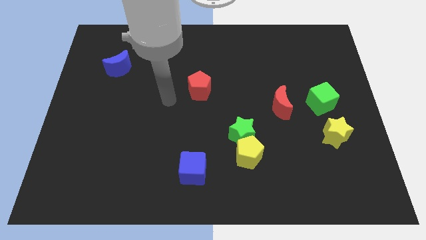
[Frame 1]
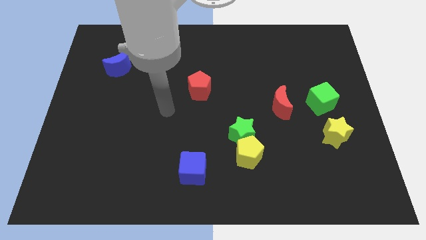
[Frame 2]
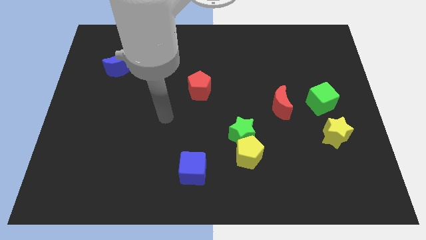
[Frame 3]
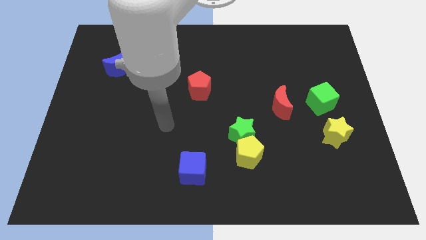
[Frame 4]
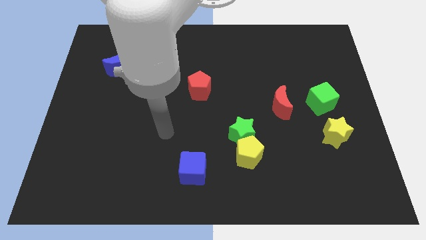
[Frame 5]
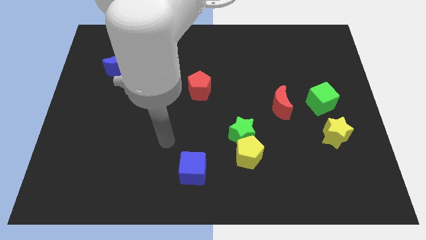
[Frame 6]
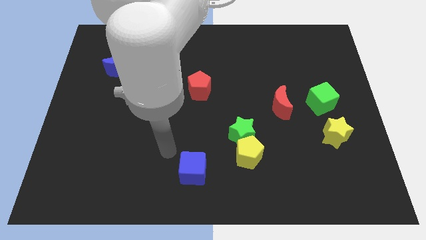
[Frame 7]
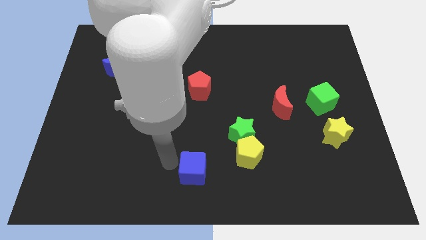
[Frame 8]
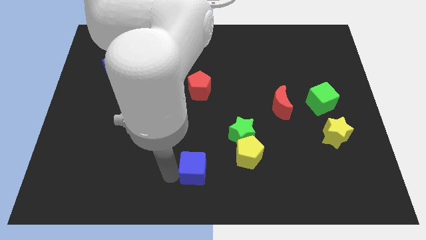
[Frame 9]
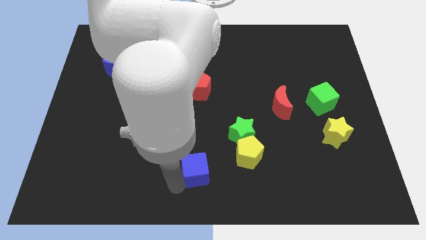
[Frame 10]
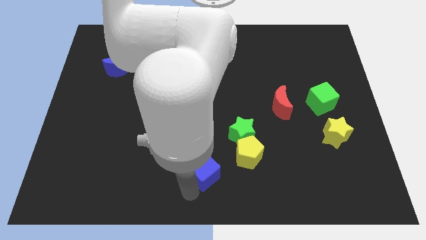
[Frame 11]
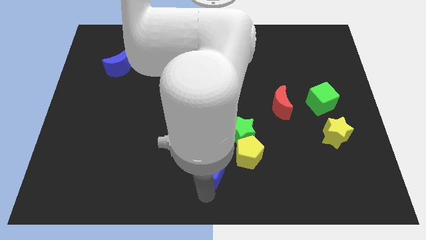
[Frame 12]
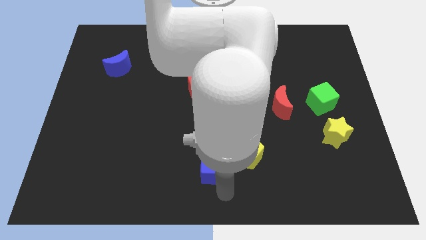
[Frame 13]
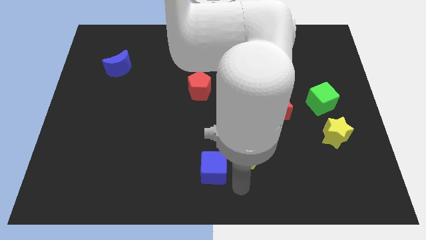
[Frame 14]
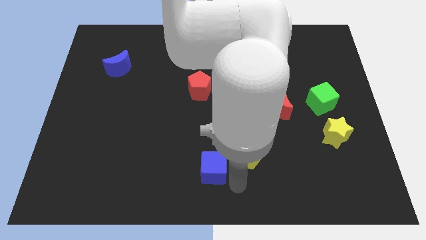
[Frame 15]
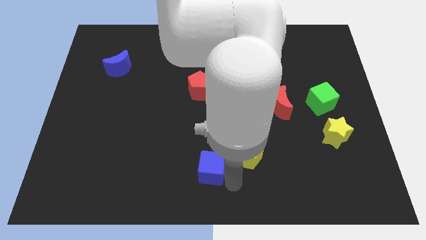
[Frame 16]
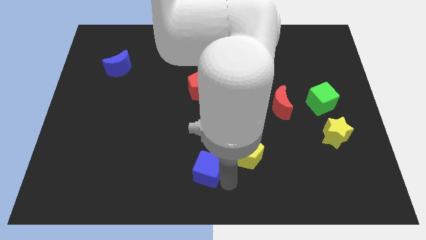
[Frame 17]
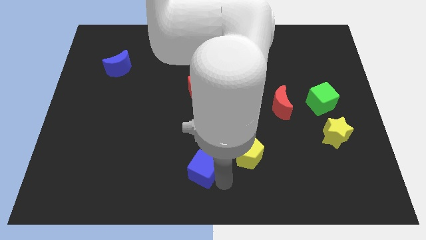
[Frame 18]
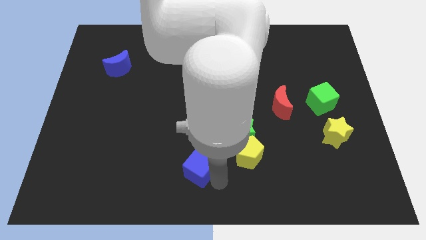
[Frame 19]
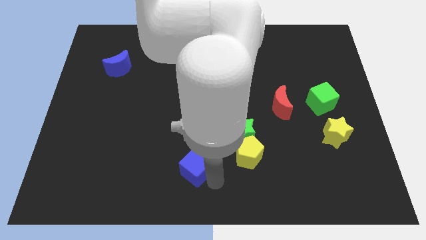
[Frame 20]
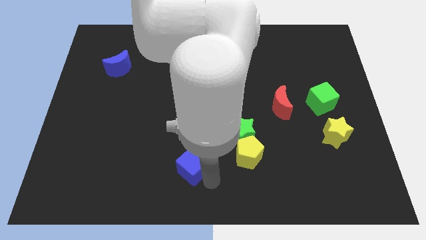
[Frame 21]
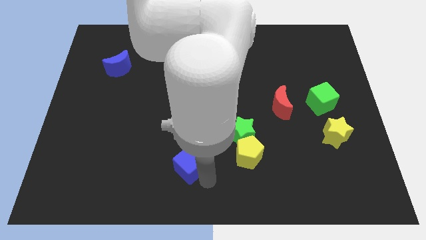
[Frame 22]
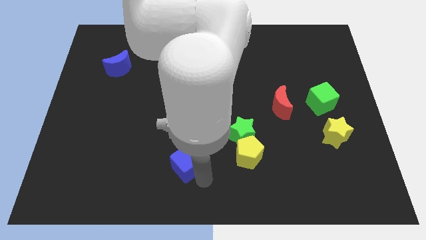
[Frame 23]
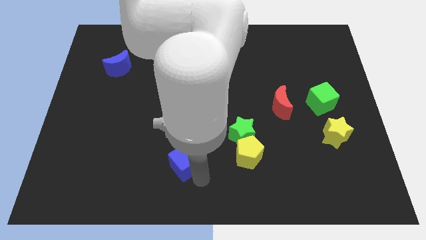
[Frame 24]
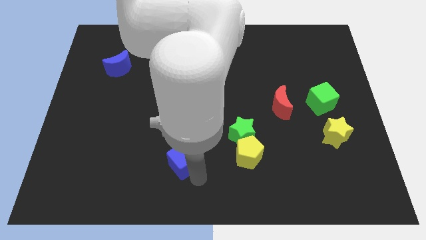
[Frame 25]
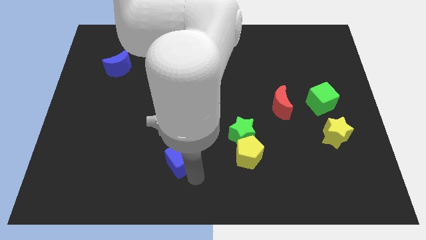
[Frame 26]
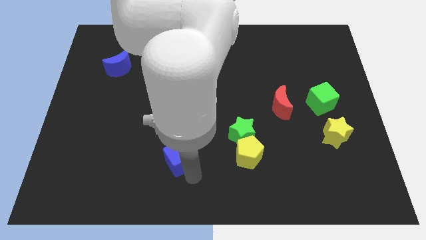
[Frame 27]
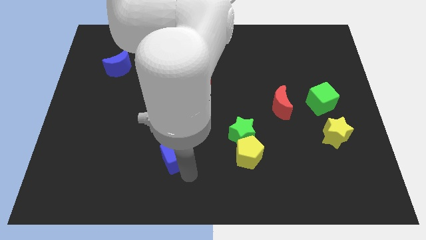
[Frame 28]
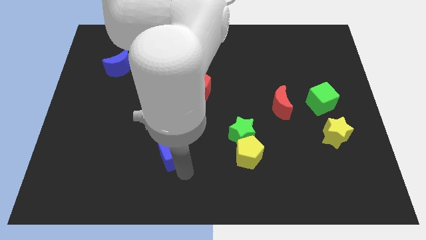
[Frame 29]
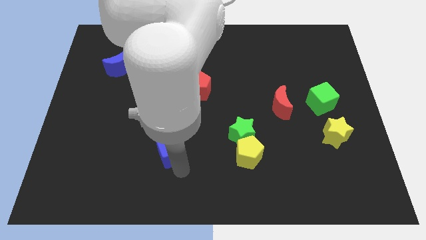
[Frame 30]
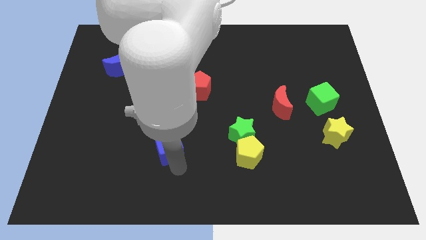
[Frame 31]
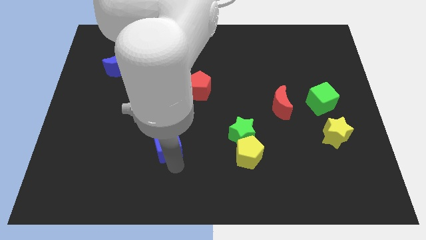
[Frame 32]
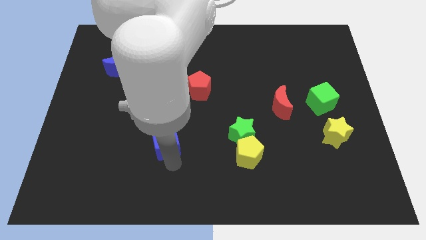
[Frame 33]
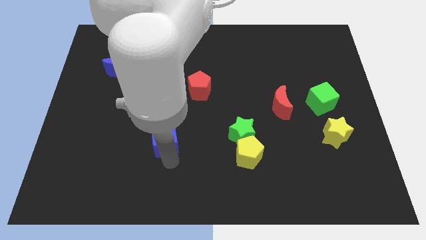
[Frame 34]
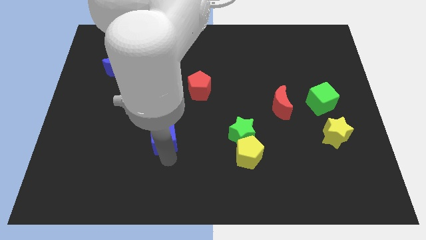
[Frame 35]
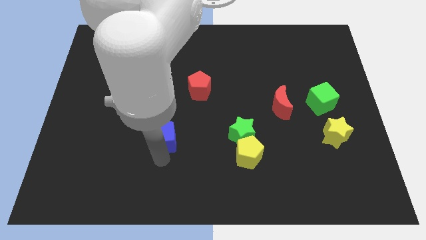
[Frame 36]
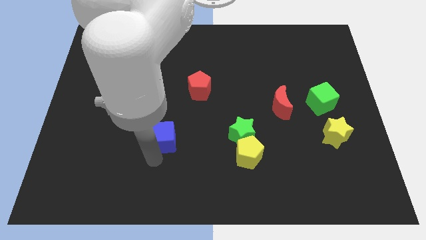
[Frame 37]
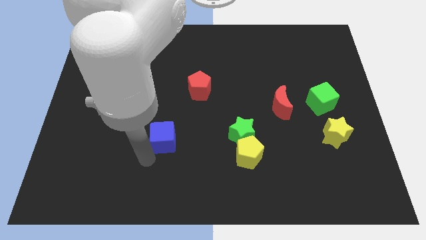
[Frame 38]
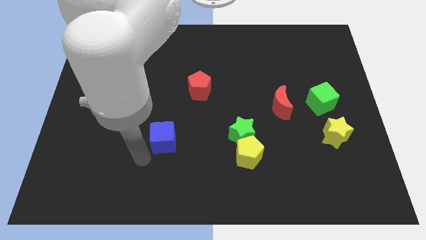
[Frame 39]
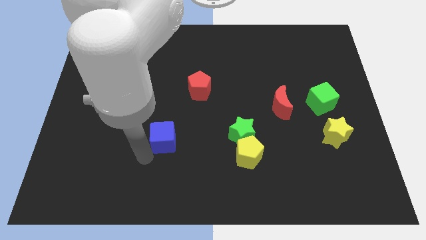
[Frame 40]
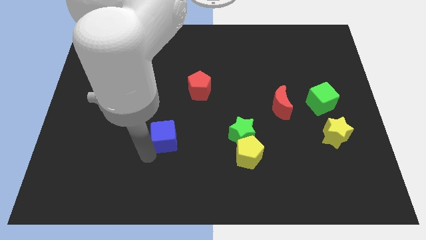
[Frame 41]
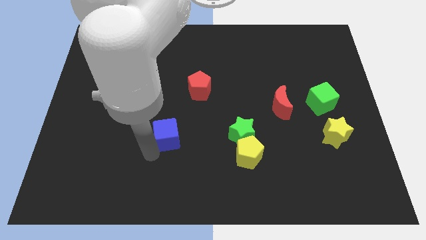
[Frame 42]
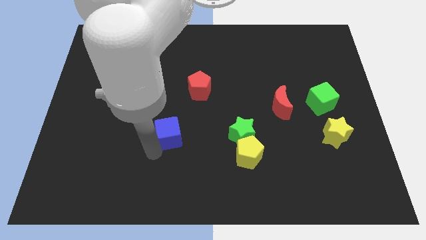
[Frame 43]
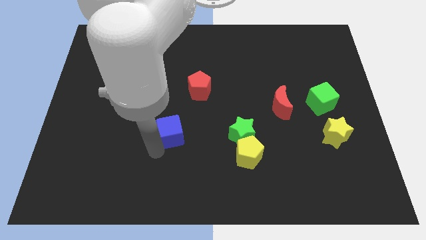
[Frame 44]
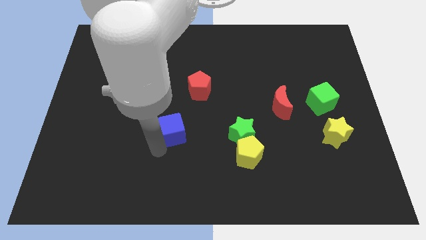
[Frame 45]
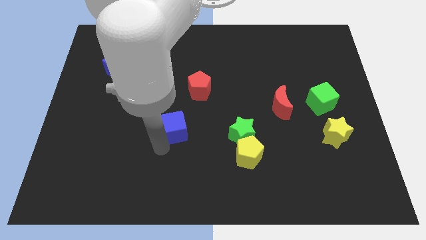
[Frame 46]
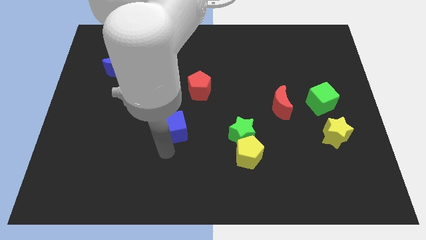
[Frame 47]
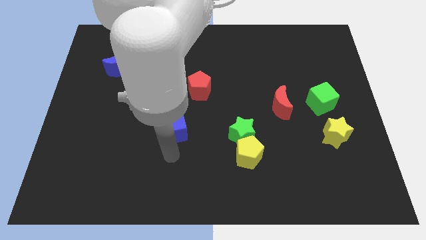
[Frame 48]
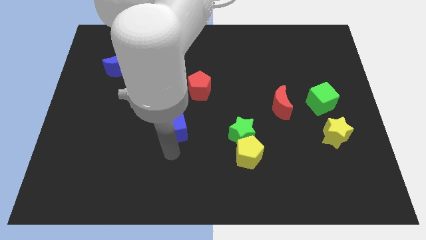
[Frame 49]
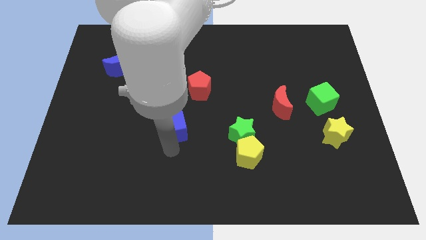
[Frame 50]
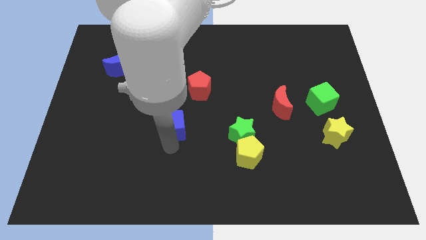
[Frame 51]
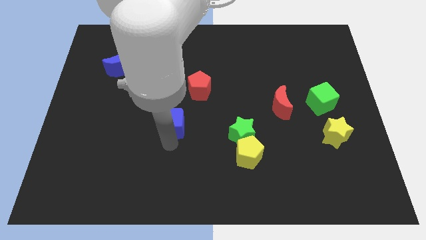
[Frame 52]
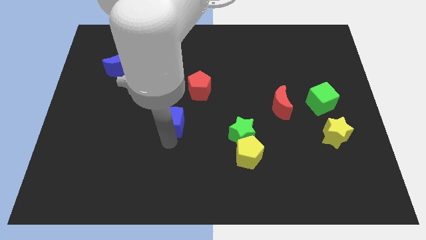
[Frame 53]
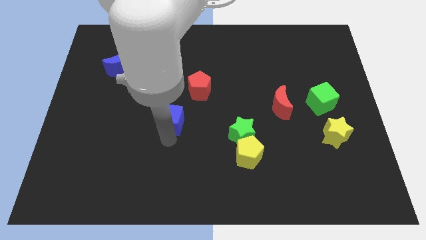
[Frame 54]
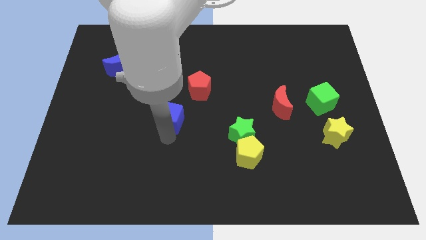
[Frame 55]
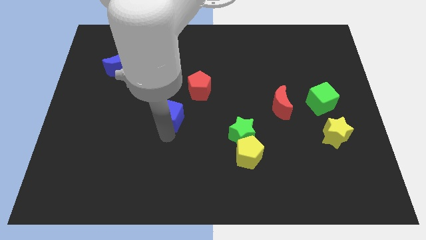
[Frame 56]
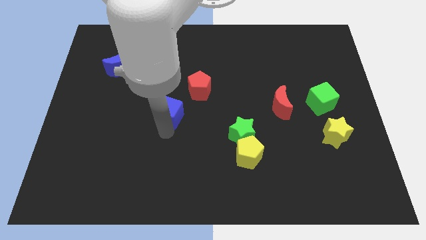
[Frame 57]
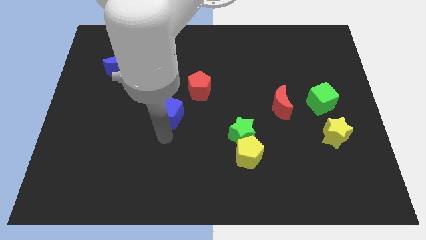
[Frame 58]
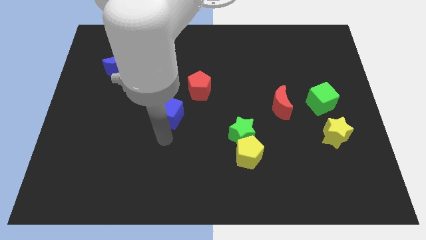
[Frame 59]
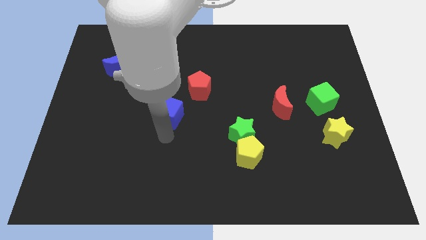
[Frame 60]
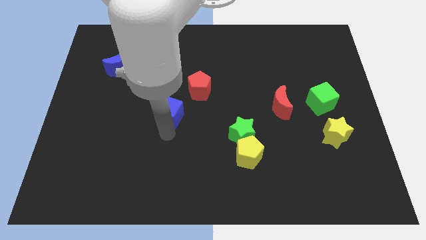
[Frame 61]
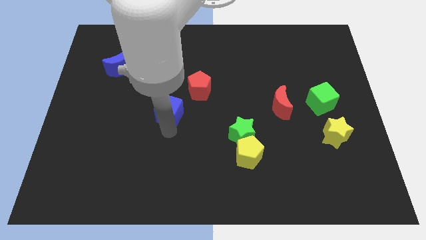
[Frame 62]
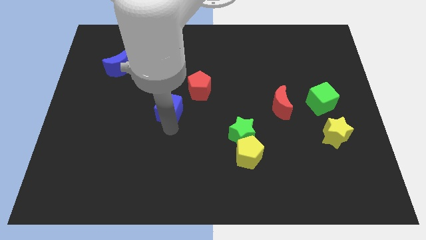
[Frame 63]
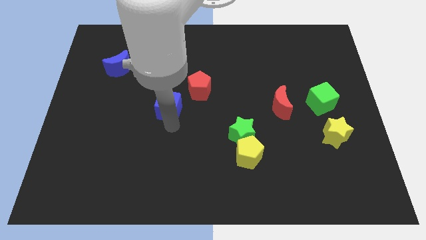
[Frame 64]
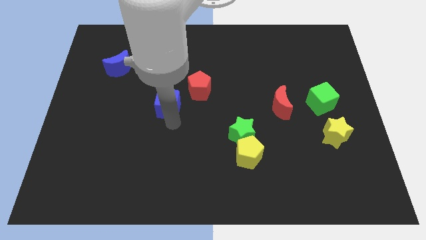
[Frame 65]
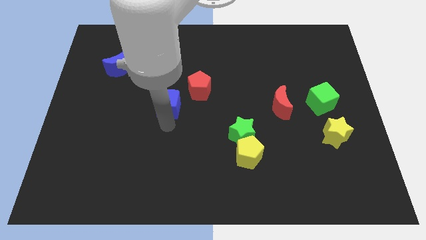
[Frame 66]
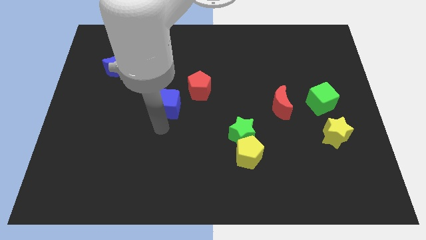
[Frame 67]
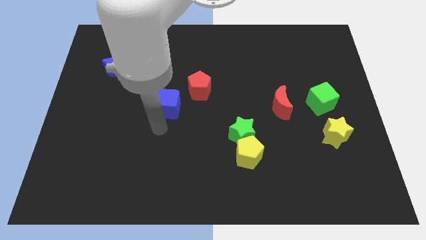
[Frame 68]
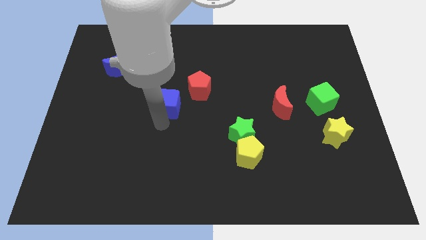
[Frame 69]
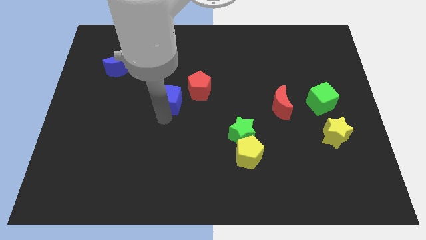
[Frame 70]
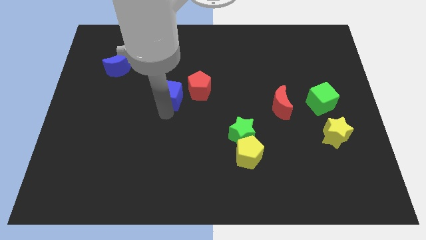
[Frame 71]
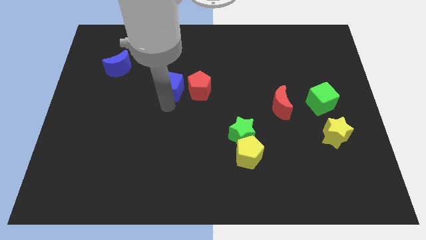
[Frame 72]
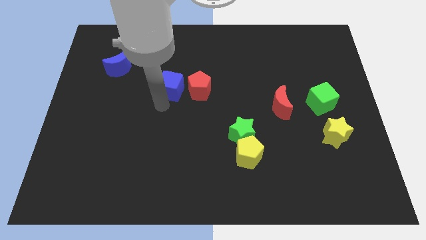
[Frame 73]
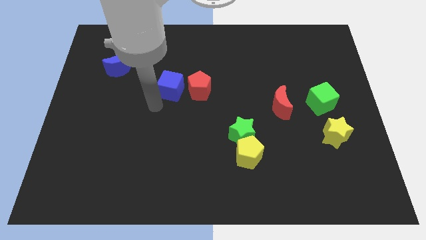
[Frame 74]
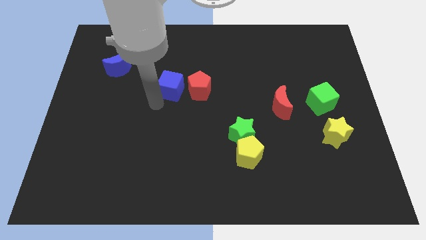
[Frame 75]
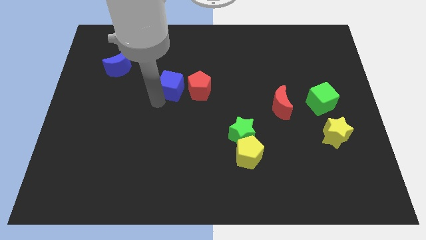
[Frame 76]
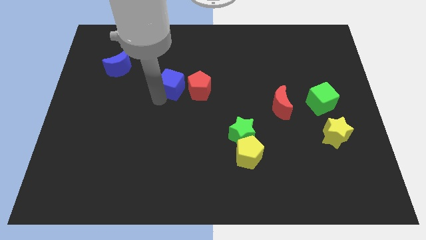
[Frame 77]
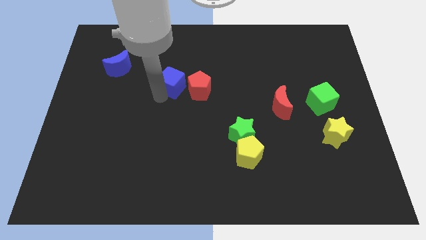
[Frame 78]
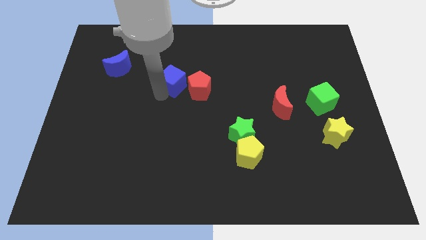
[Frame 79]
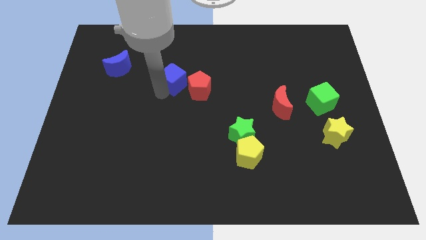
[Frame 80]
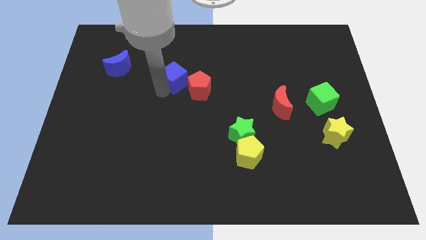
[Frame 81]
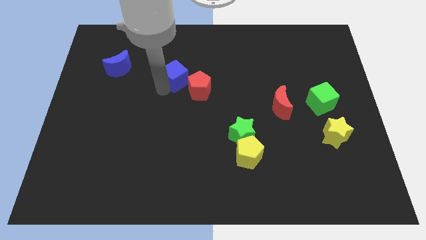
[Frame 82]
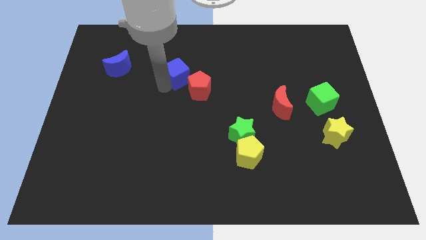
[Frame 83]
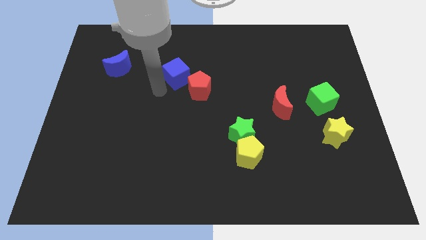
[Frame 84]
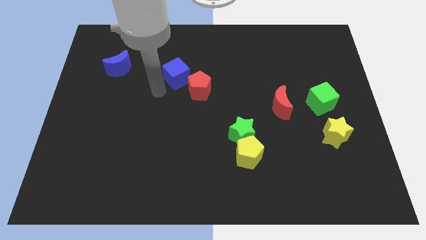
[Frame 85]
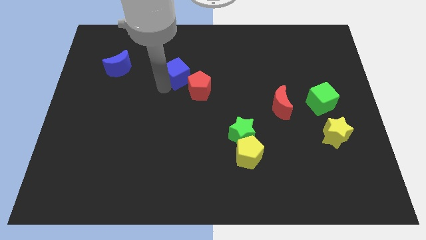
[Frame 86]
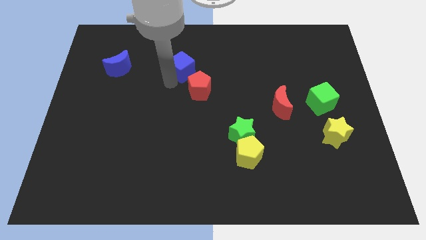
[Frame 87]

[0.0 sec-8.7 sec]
slide the blue cube to the top of the red pentagon
